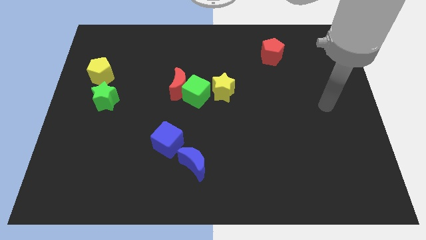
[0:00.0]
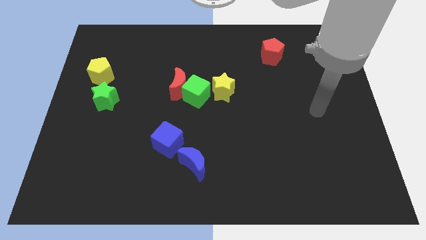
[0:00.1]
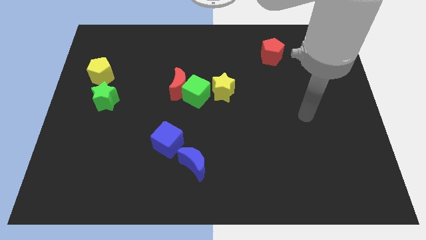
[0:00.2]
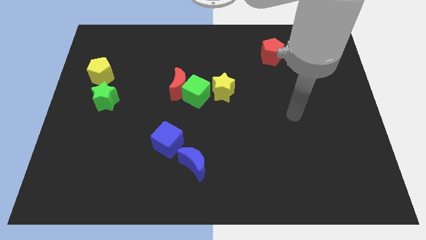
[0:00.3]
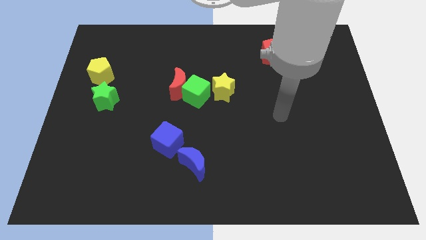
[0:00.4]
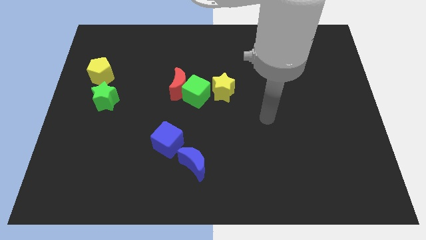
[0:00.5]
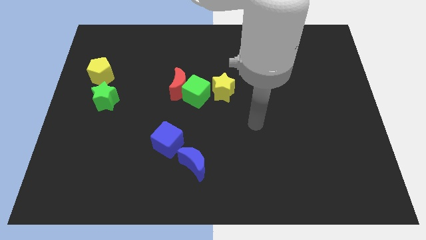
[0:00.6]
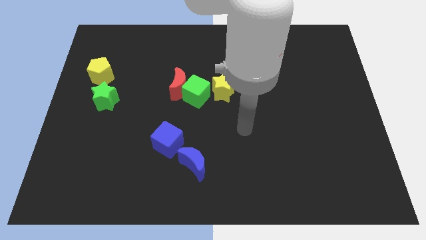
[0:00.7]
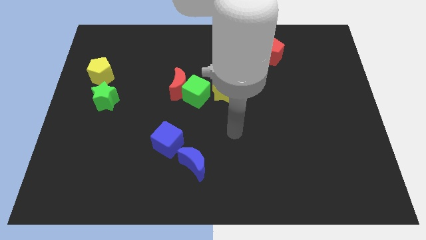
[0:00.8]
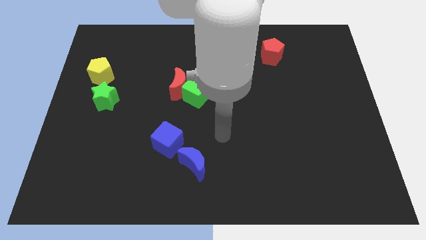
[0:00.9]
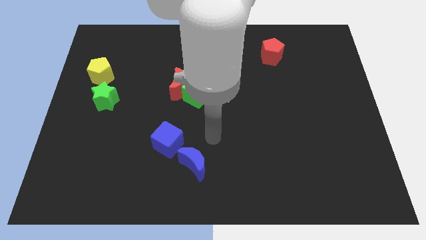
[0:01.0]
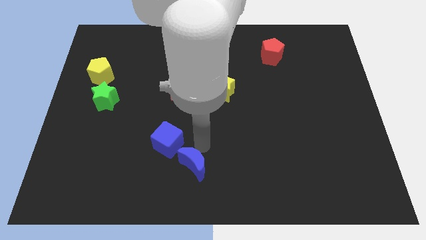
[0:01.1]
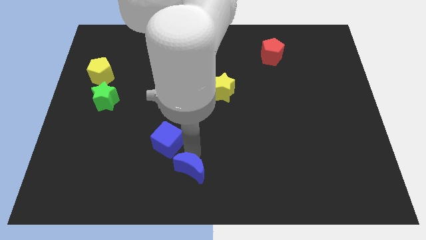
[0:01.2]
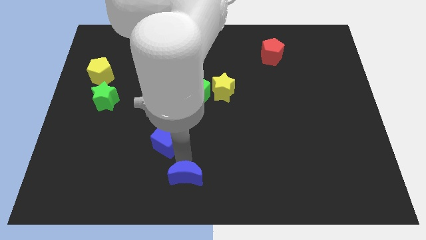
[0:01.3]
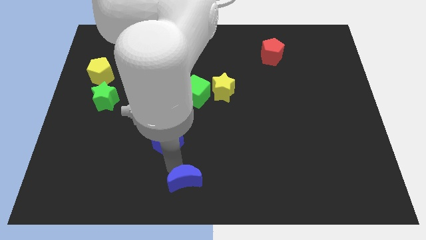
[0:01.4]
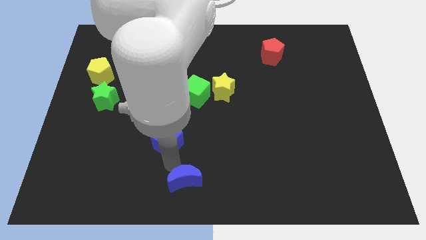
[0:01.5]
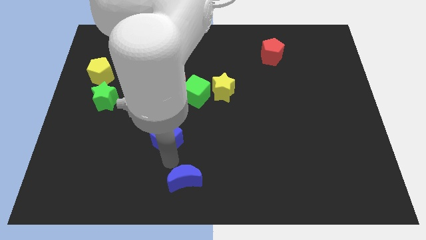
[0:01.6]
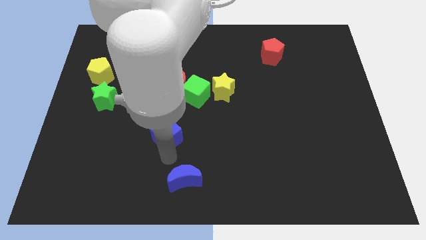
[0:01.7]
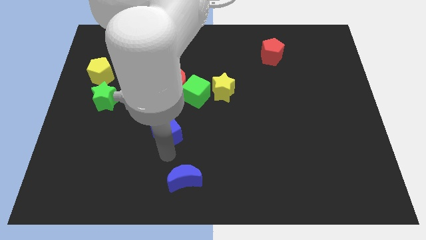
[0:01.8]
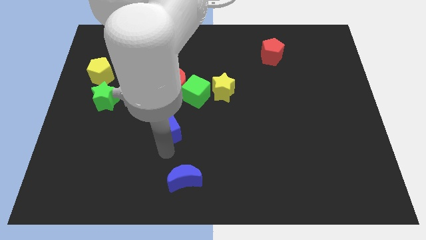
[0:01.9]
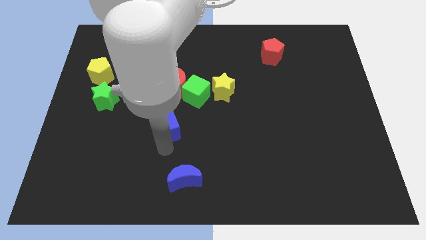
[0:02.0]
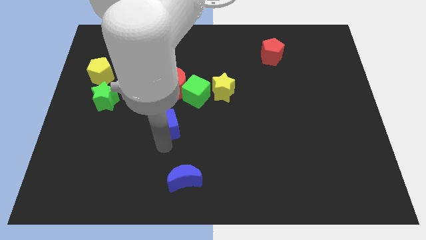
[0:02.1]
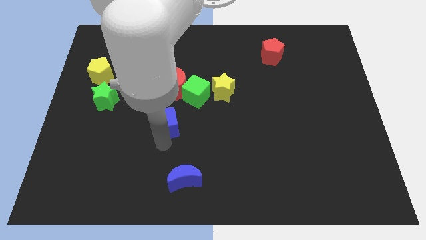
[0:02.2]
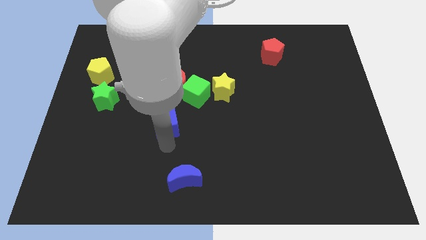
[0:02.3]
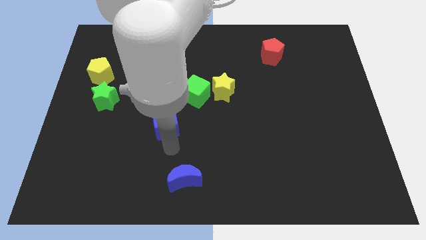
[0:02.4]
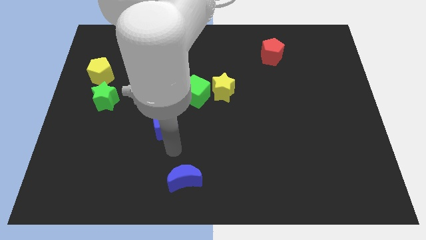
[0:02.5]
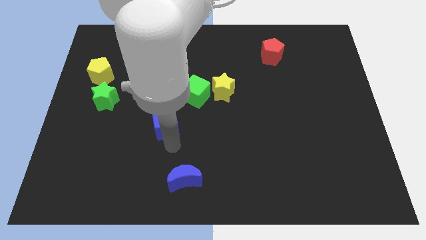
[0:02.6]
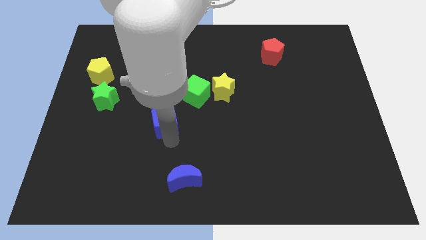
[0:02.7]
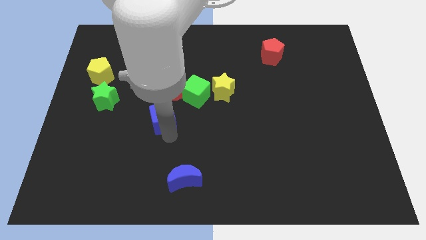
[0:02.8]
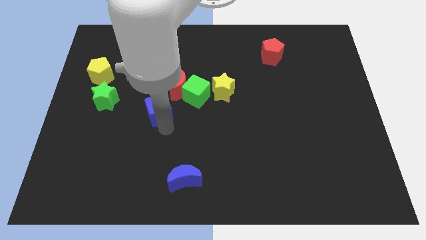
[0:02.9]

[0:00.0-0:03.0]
slide the blue cube a bit upwards

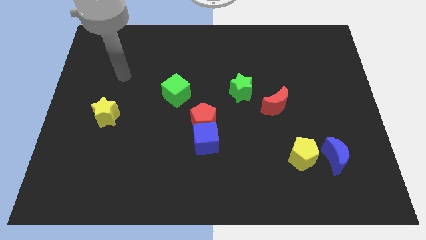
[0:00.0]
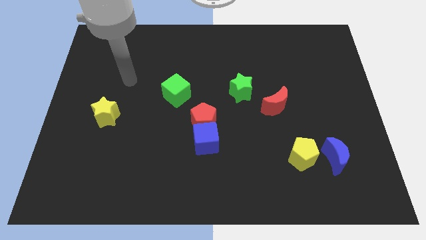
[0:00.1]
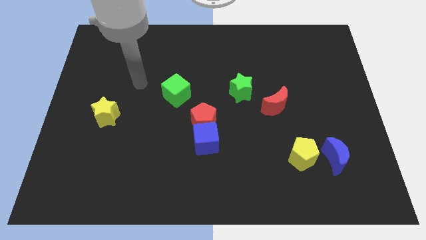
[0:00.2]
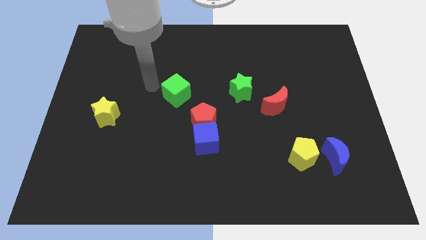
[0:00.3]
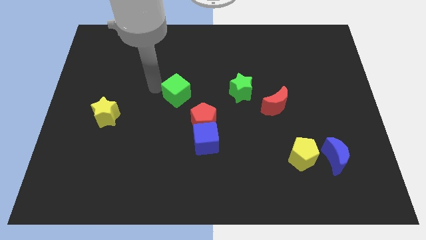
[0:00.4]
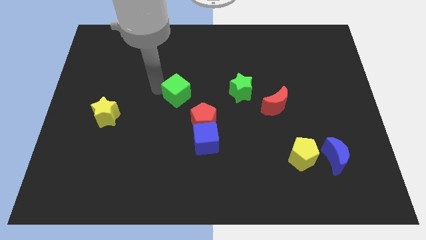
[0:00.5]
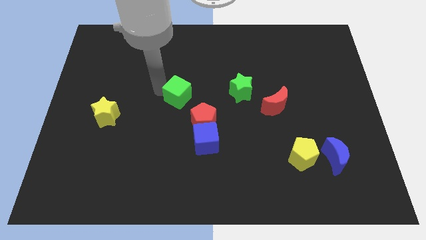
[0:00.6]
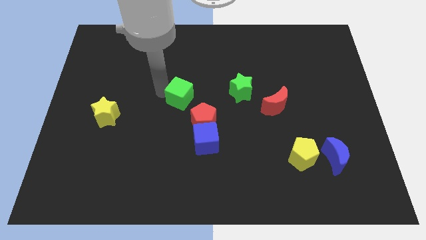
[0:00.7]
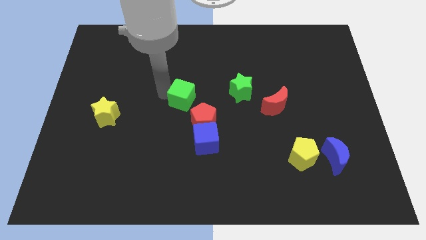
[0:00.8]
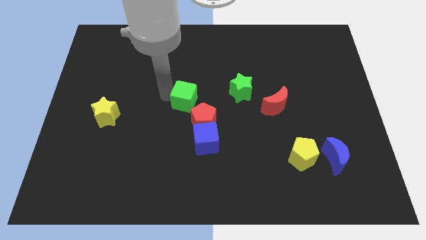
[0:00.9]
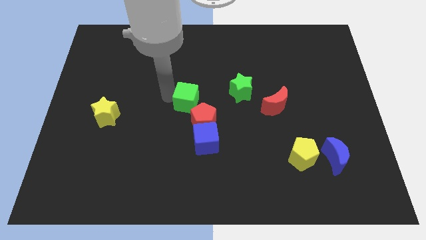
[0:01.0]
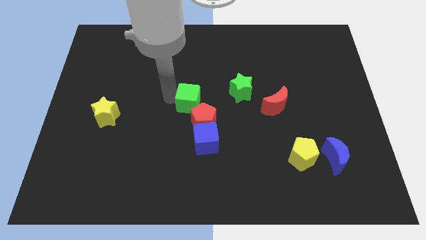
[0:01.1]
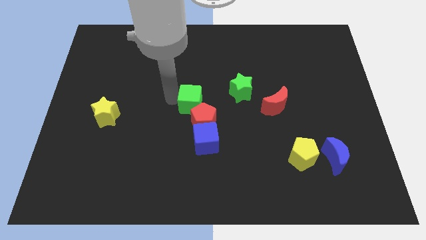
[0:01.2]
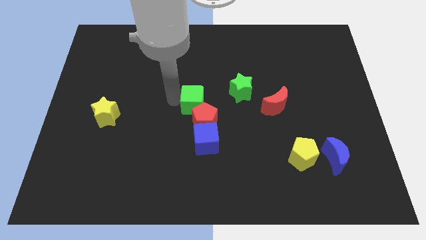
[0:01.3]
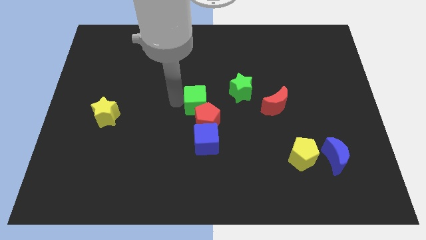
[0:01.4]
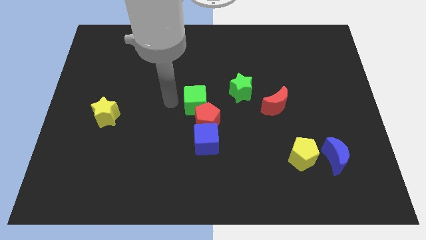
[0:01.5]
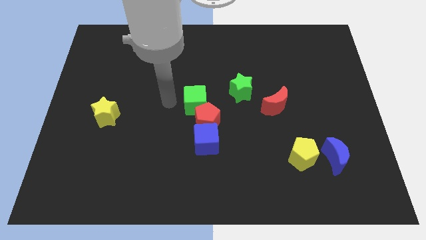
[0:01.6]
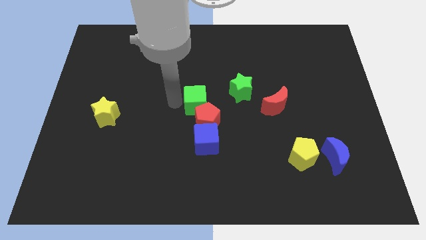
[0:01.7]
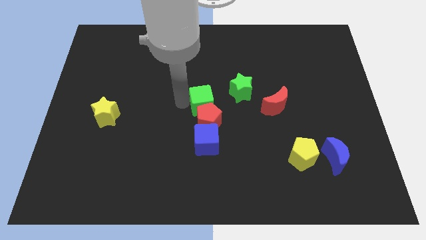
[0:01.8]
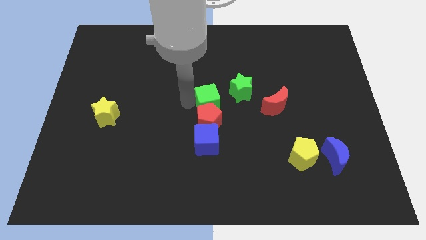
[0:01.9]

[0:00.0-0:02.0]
move the green cube slightly down and then to the right

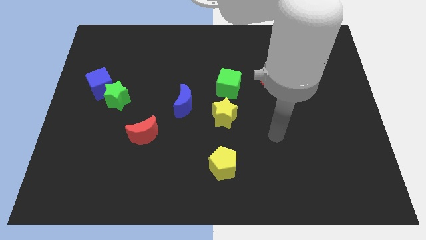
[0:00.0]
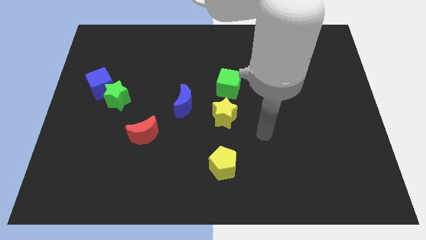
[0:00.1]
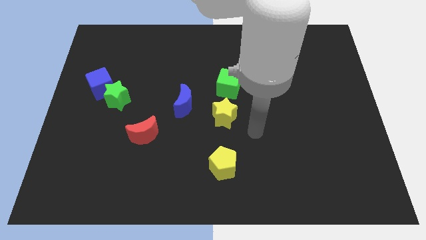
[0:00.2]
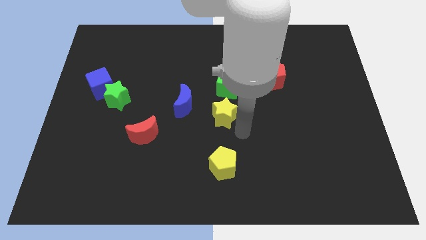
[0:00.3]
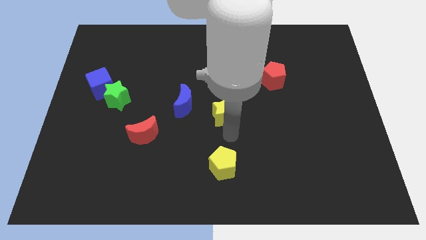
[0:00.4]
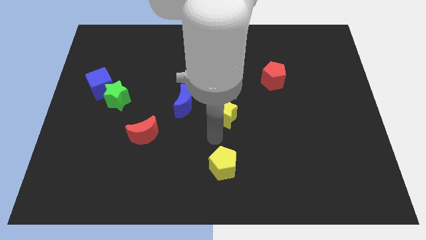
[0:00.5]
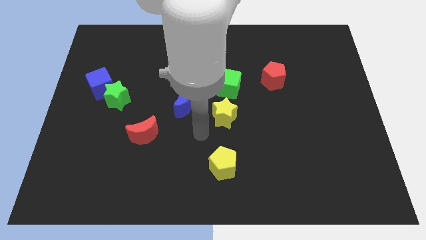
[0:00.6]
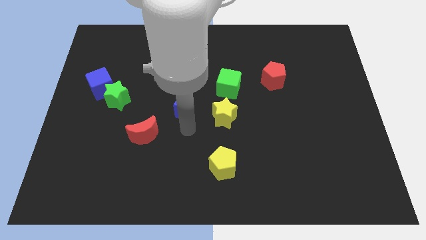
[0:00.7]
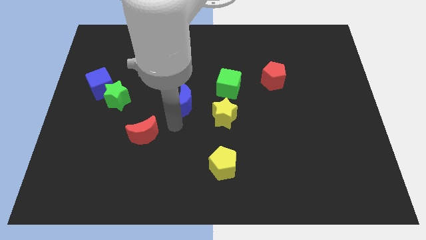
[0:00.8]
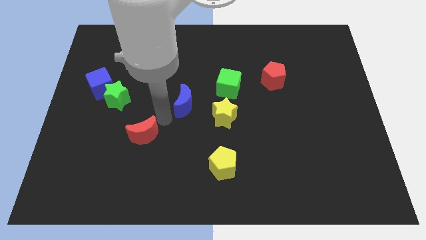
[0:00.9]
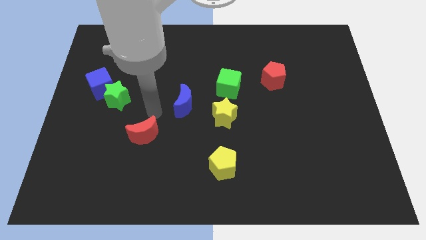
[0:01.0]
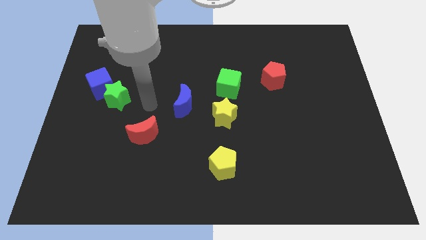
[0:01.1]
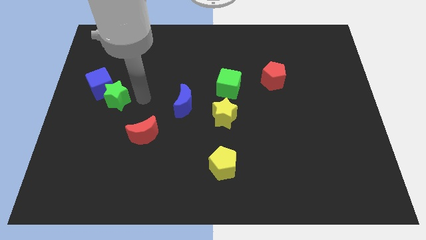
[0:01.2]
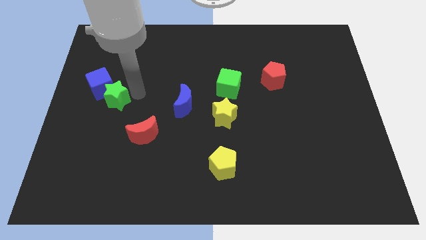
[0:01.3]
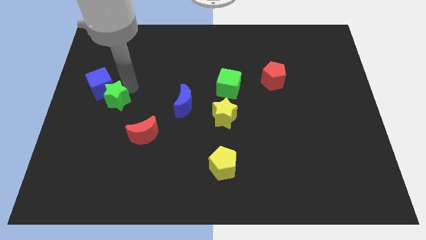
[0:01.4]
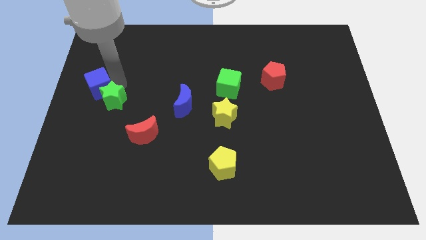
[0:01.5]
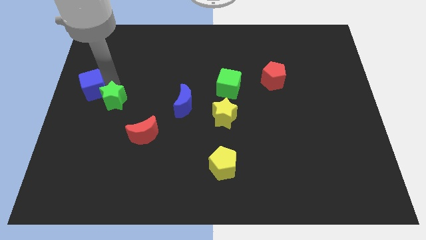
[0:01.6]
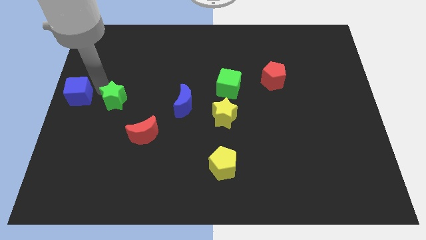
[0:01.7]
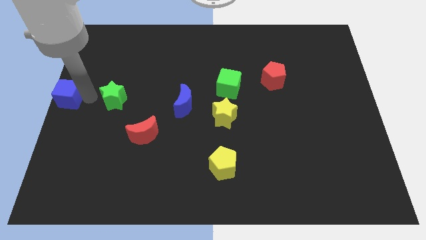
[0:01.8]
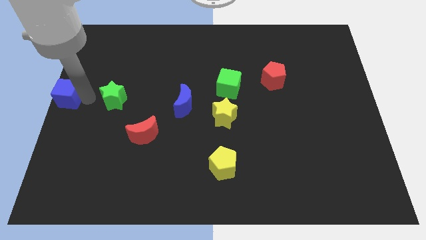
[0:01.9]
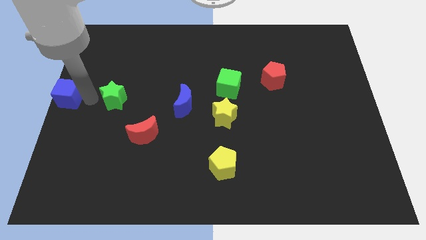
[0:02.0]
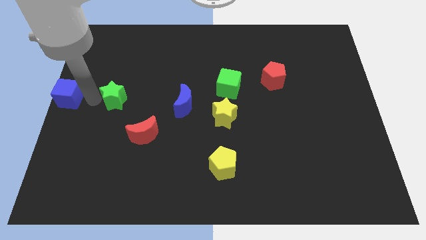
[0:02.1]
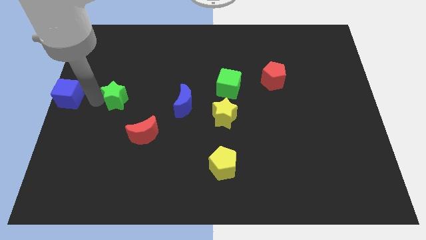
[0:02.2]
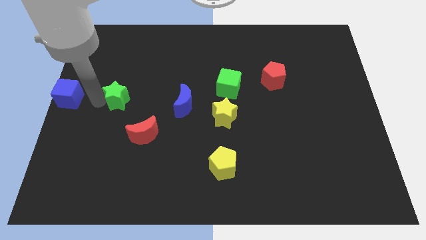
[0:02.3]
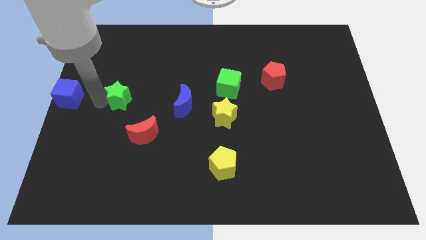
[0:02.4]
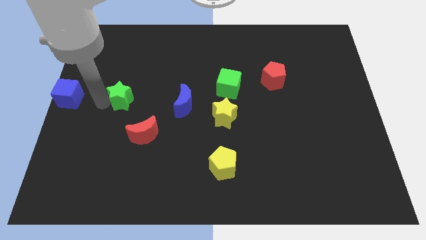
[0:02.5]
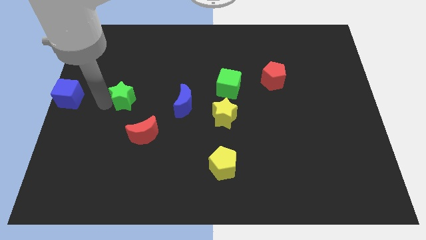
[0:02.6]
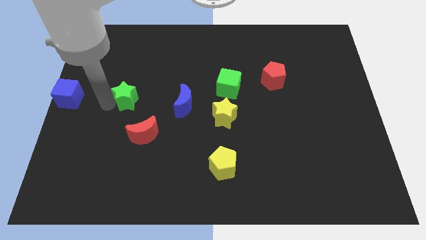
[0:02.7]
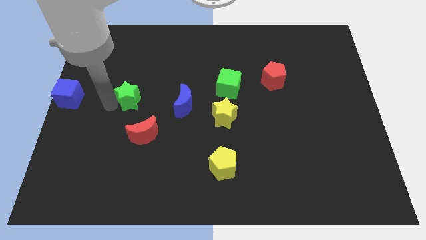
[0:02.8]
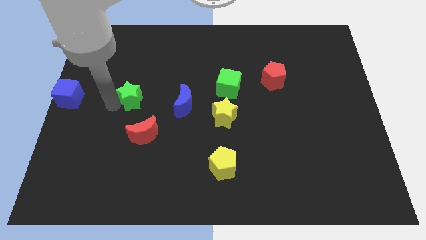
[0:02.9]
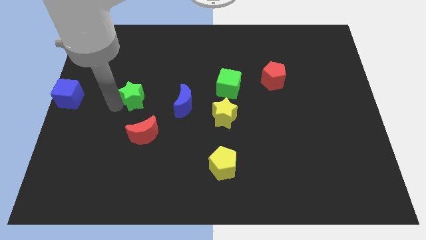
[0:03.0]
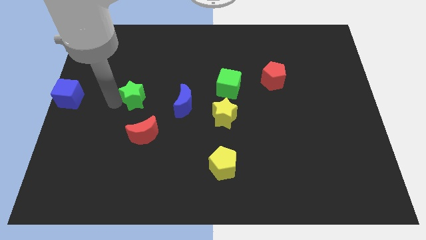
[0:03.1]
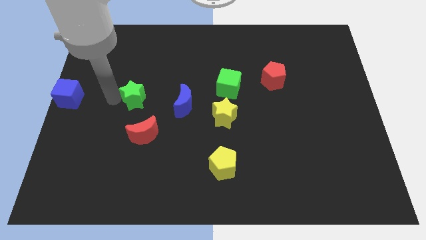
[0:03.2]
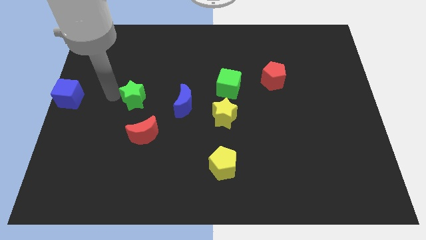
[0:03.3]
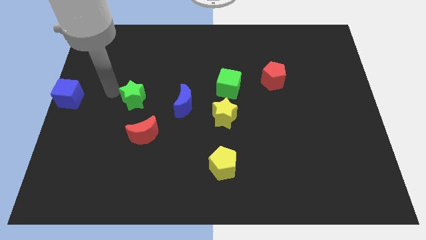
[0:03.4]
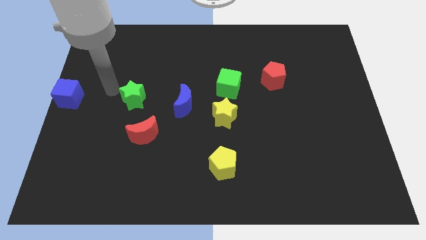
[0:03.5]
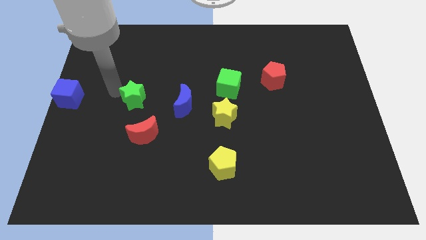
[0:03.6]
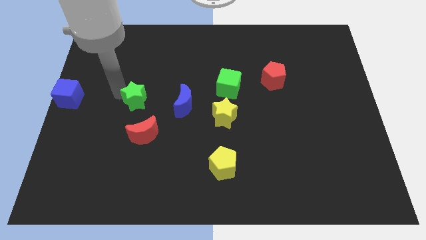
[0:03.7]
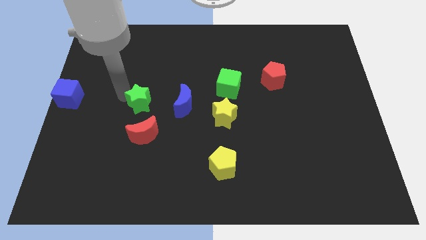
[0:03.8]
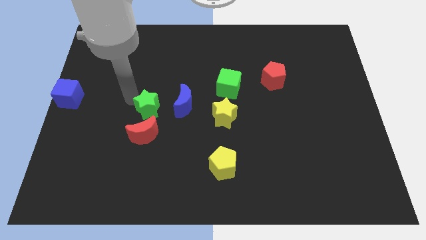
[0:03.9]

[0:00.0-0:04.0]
slightly push the green star downwards and to the right diagonally
